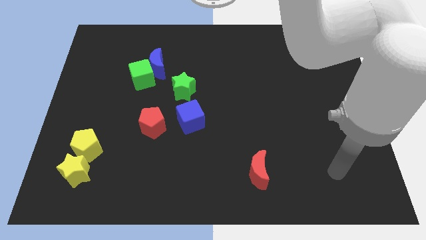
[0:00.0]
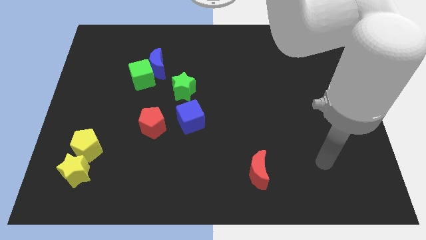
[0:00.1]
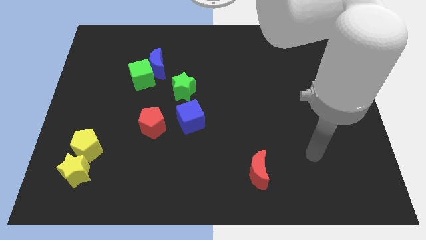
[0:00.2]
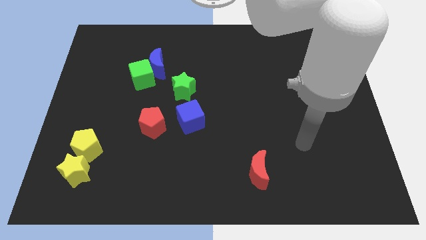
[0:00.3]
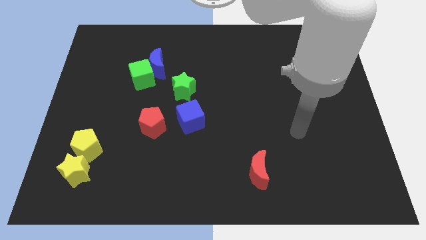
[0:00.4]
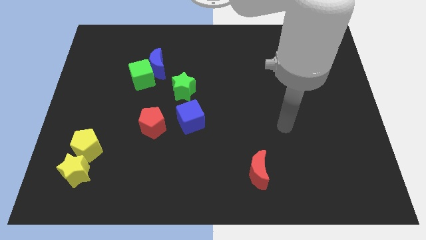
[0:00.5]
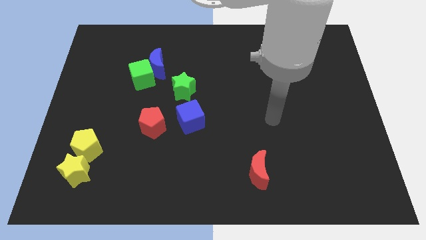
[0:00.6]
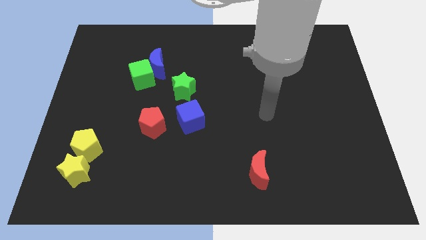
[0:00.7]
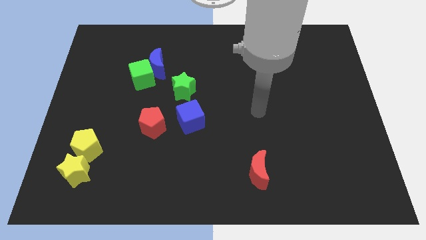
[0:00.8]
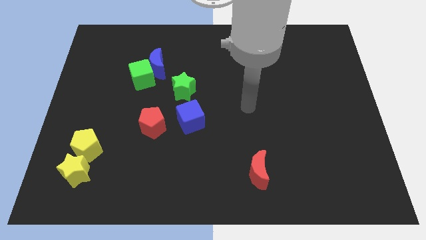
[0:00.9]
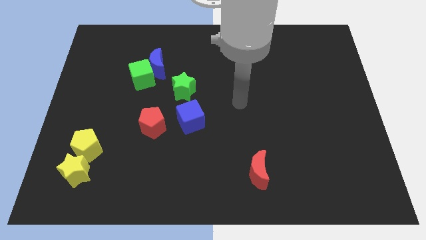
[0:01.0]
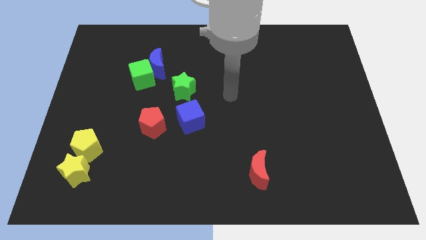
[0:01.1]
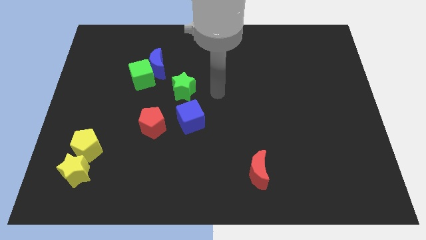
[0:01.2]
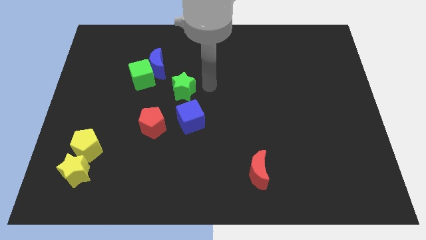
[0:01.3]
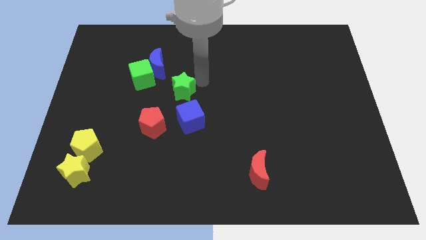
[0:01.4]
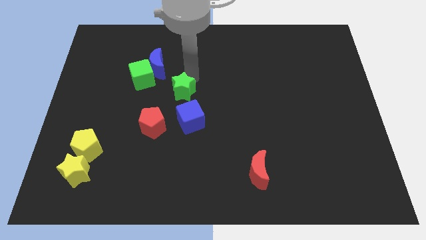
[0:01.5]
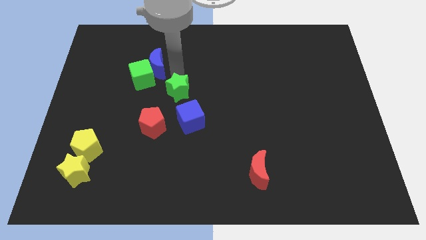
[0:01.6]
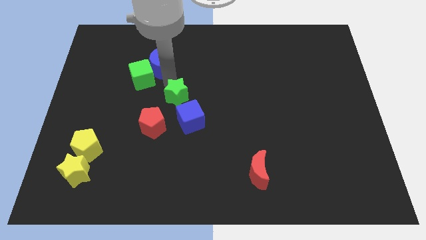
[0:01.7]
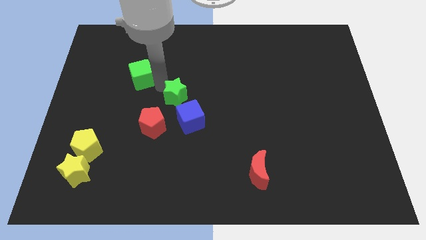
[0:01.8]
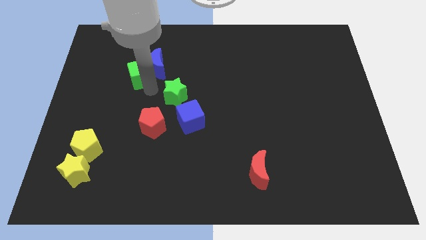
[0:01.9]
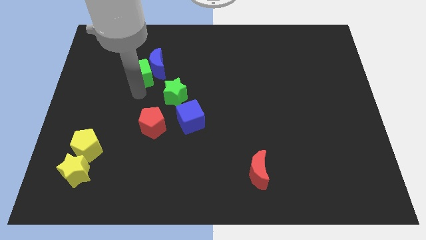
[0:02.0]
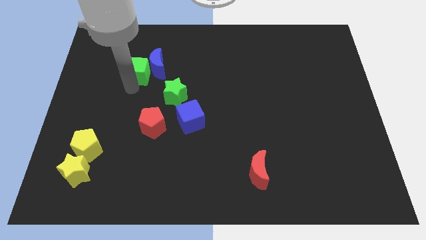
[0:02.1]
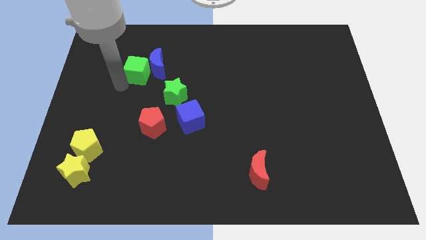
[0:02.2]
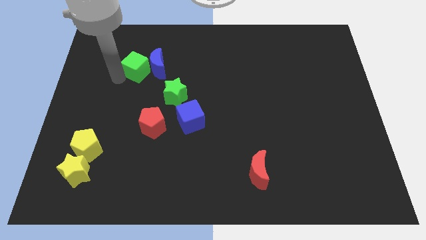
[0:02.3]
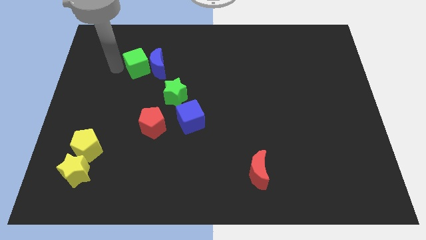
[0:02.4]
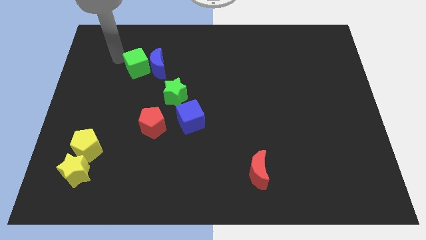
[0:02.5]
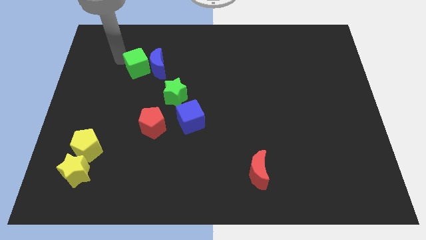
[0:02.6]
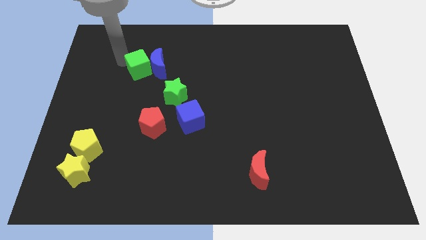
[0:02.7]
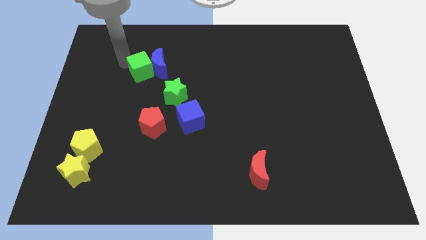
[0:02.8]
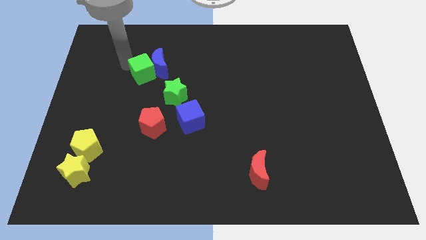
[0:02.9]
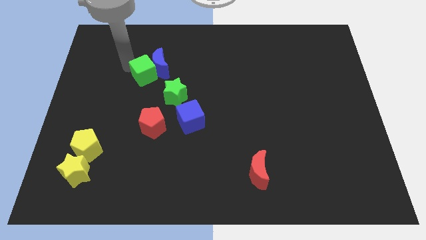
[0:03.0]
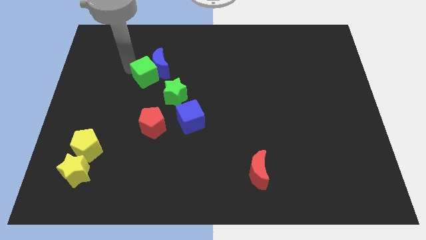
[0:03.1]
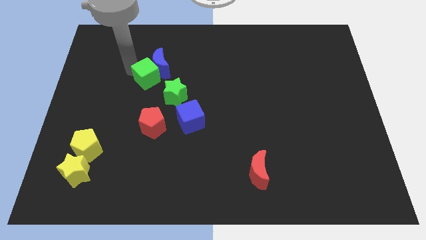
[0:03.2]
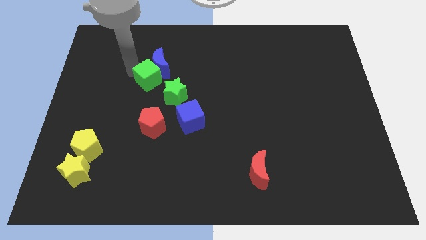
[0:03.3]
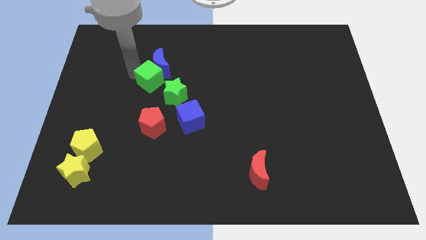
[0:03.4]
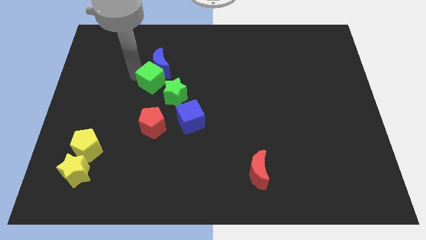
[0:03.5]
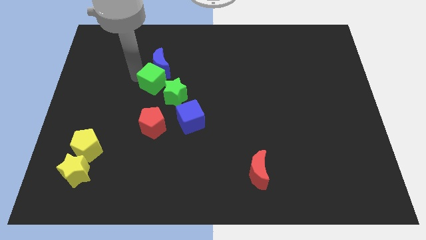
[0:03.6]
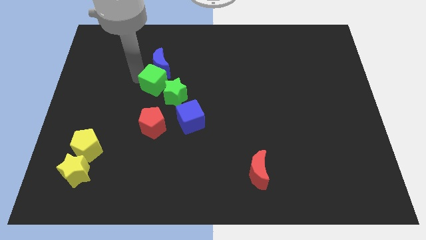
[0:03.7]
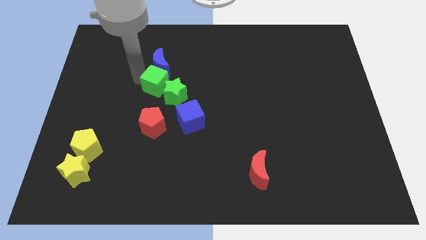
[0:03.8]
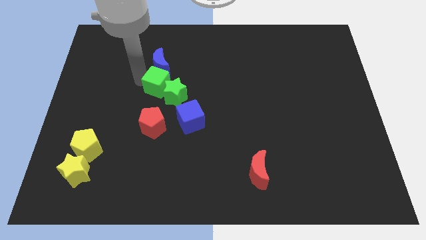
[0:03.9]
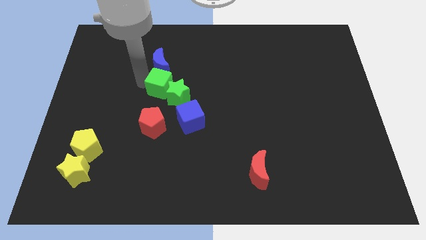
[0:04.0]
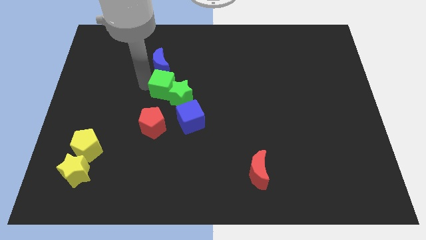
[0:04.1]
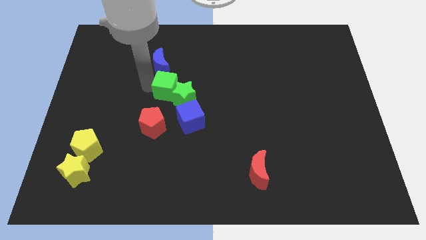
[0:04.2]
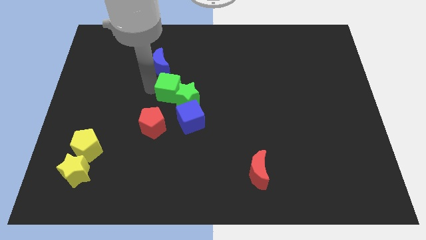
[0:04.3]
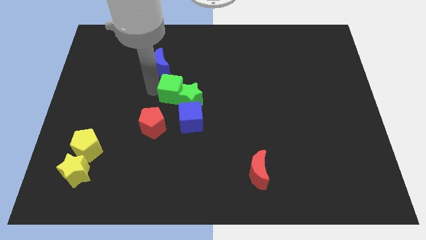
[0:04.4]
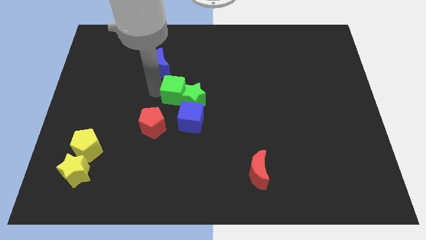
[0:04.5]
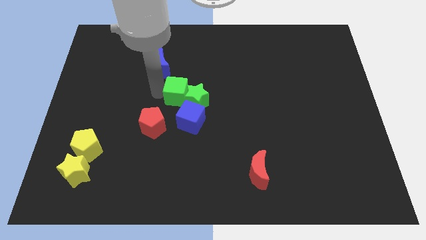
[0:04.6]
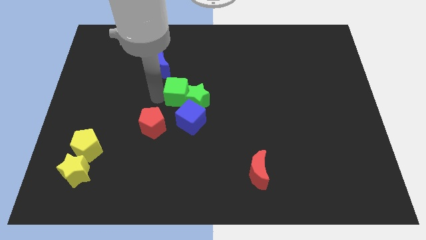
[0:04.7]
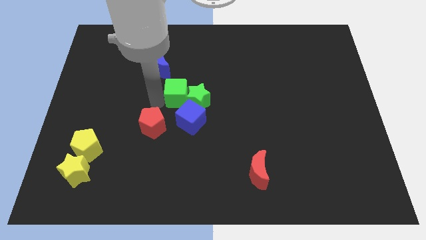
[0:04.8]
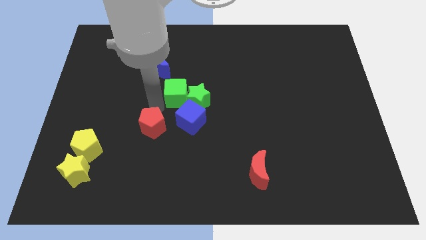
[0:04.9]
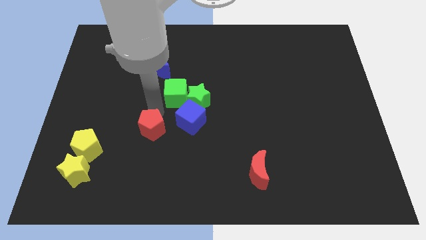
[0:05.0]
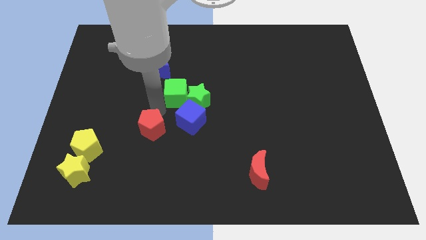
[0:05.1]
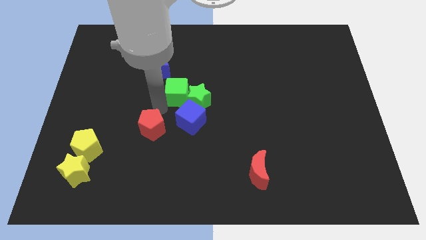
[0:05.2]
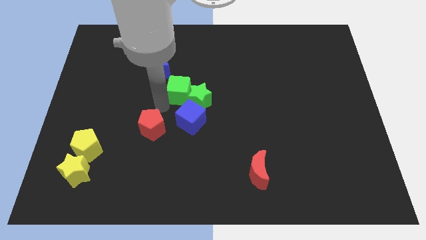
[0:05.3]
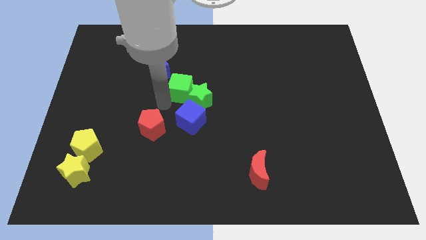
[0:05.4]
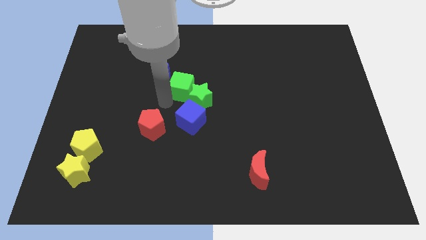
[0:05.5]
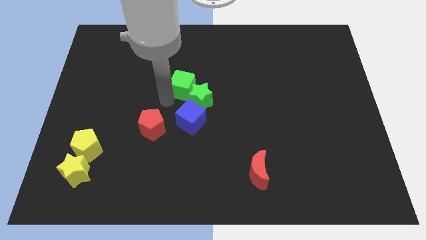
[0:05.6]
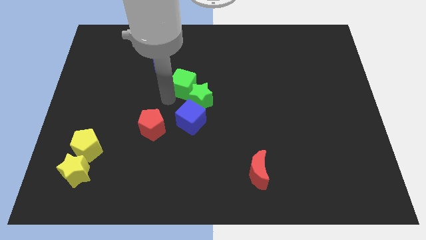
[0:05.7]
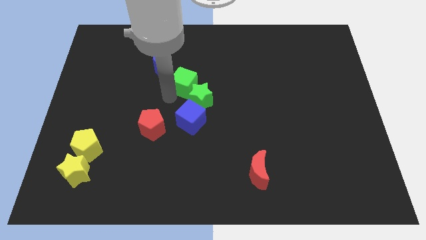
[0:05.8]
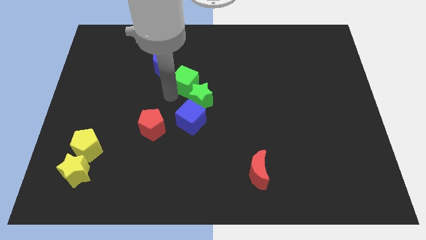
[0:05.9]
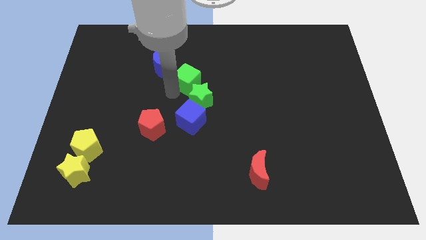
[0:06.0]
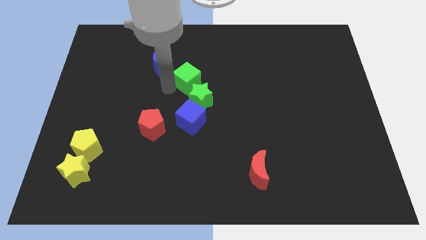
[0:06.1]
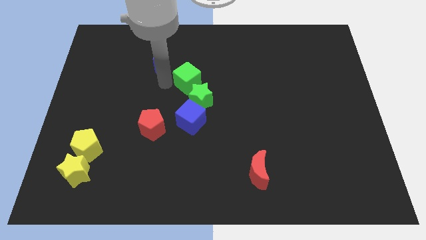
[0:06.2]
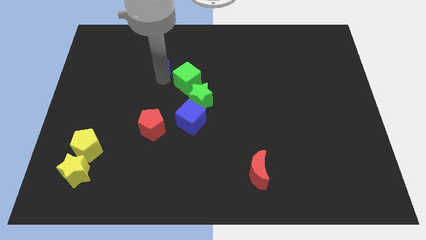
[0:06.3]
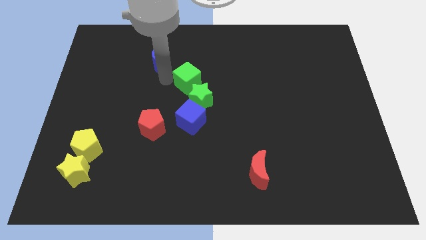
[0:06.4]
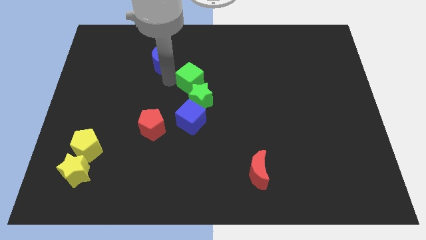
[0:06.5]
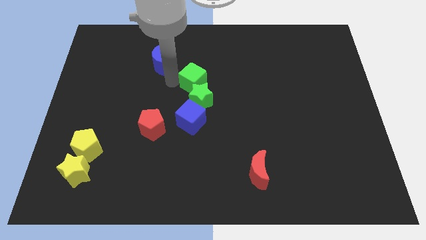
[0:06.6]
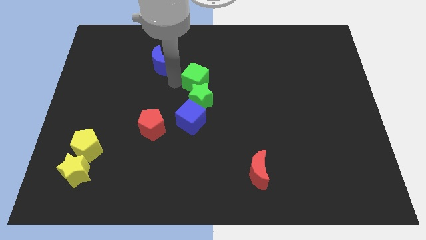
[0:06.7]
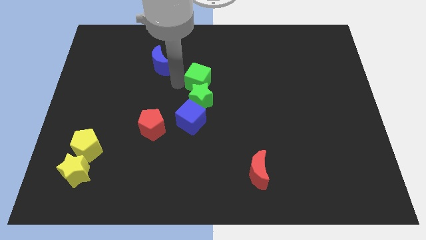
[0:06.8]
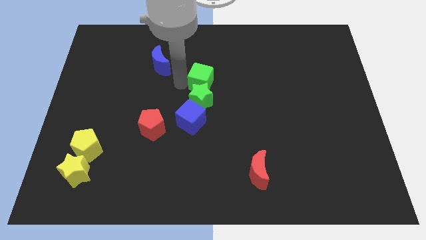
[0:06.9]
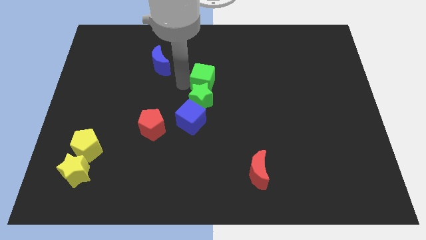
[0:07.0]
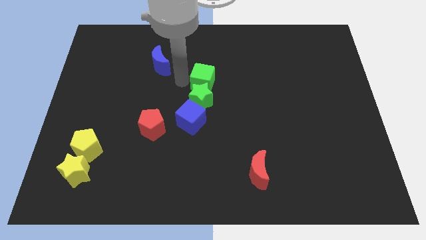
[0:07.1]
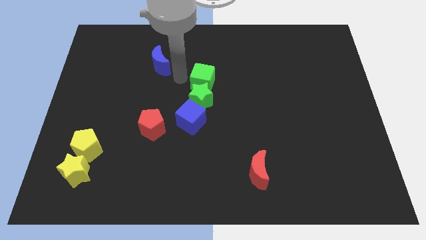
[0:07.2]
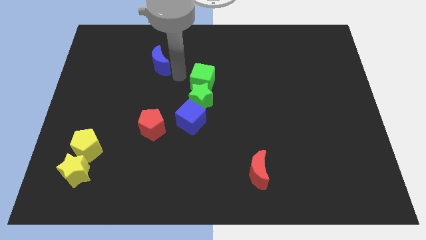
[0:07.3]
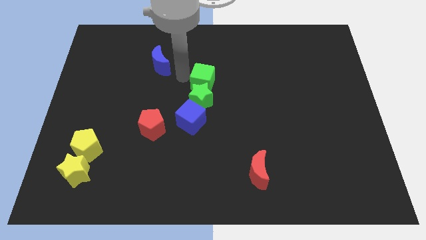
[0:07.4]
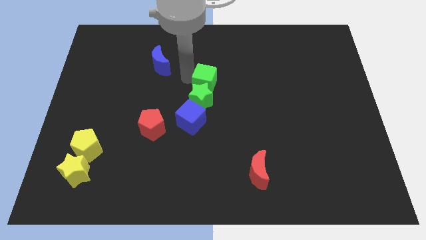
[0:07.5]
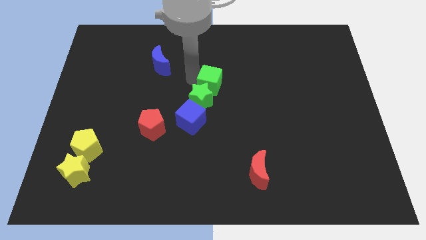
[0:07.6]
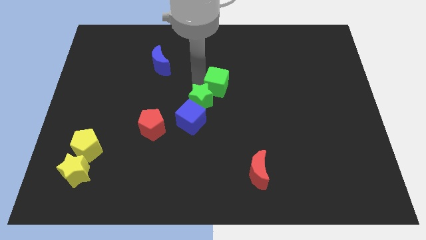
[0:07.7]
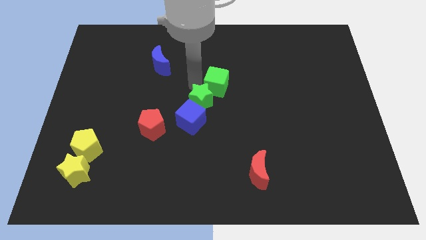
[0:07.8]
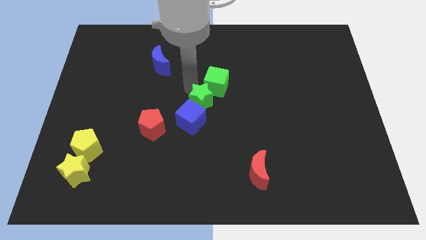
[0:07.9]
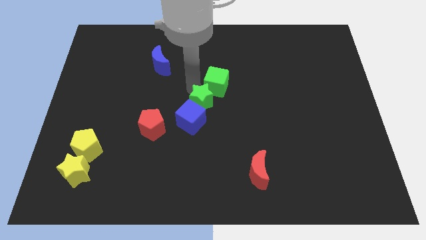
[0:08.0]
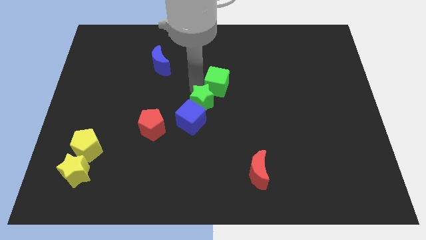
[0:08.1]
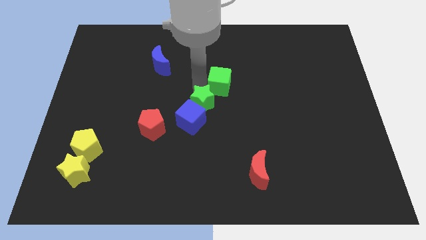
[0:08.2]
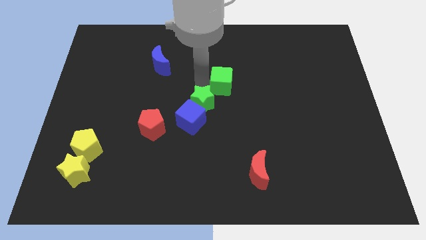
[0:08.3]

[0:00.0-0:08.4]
move the green cube to the right
